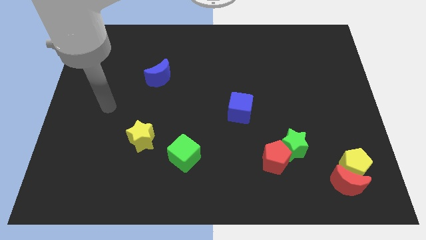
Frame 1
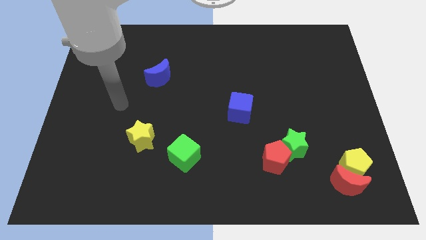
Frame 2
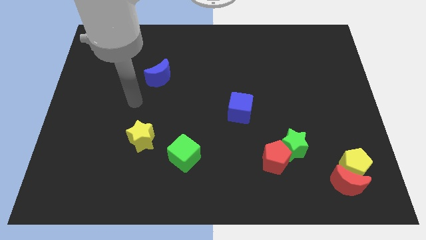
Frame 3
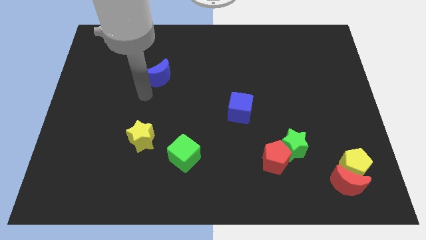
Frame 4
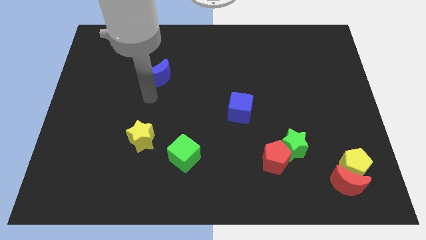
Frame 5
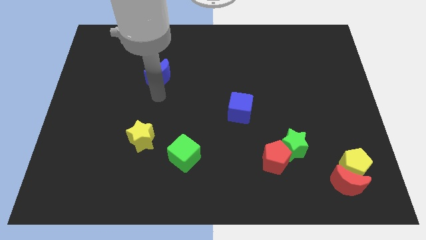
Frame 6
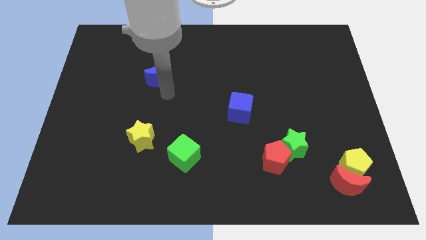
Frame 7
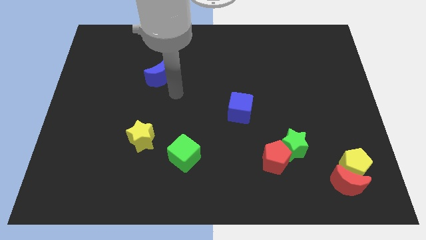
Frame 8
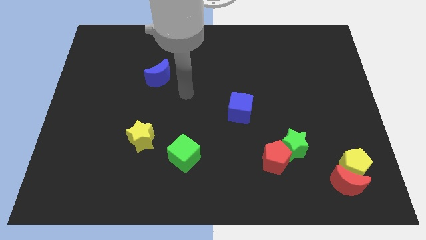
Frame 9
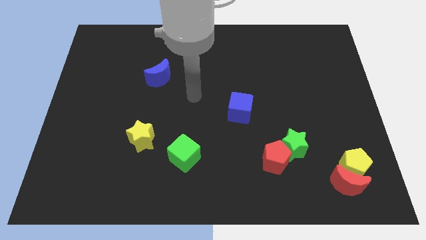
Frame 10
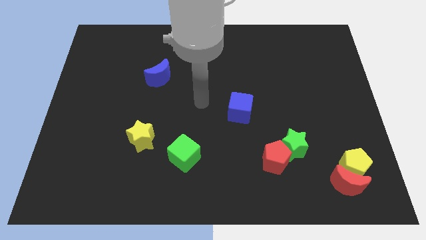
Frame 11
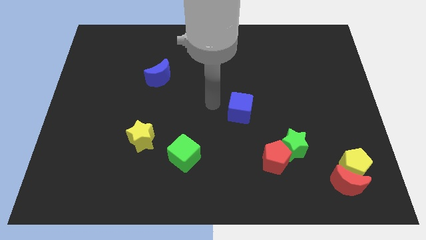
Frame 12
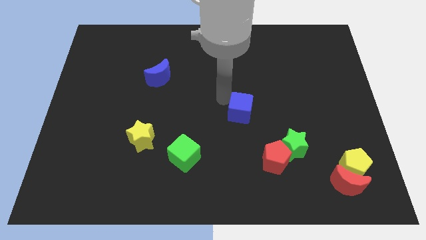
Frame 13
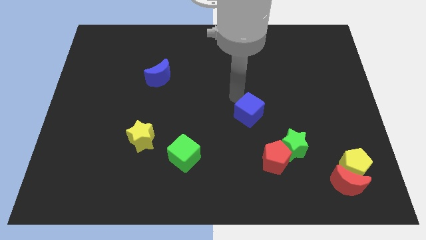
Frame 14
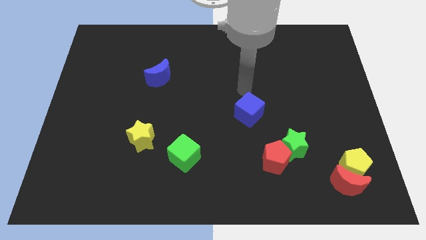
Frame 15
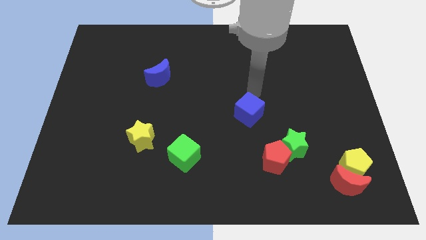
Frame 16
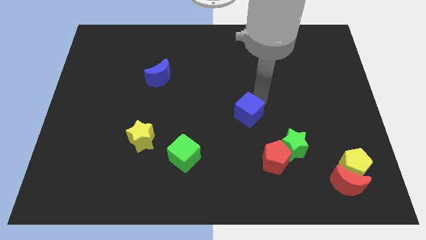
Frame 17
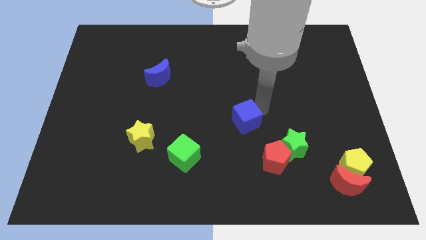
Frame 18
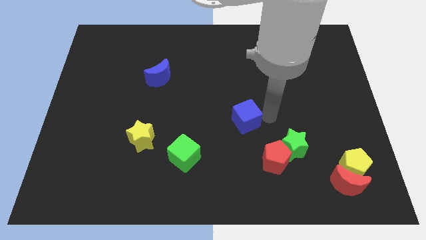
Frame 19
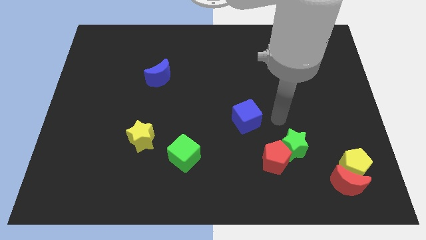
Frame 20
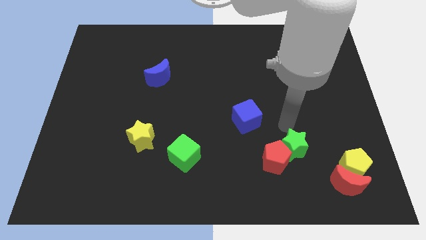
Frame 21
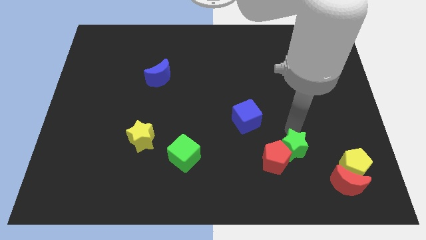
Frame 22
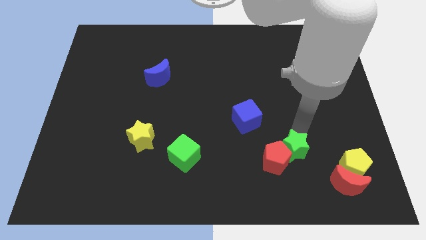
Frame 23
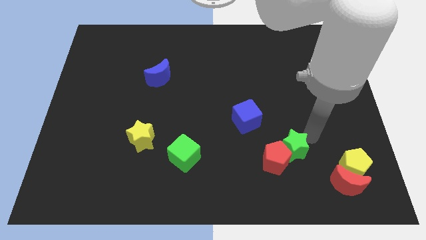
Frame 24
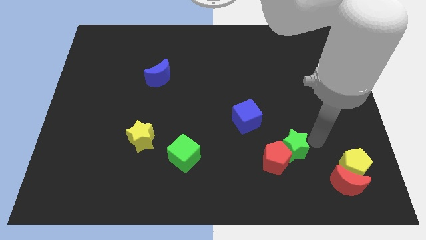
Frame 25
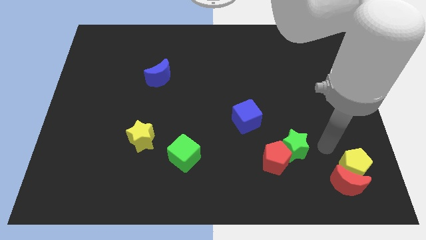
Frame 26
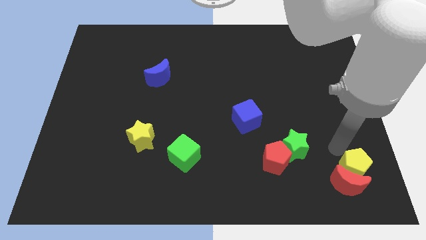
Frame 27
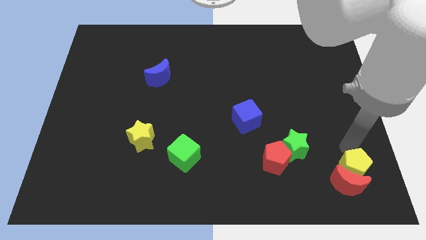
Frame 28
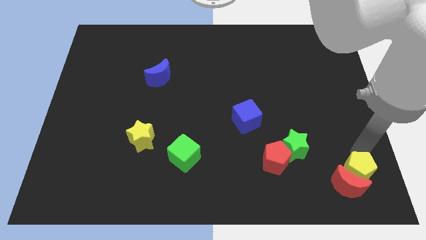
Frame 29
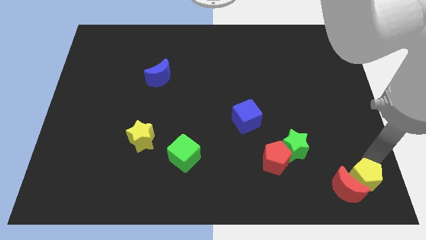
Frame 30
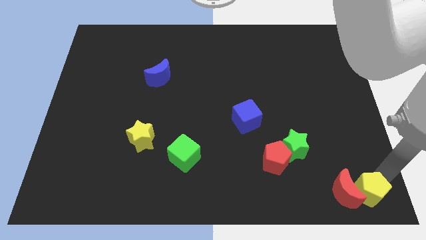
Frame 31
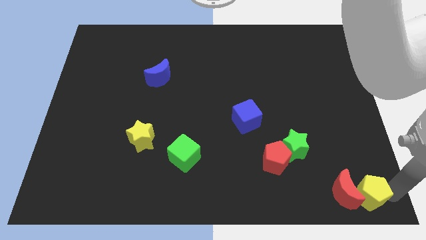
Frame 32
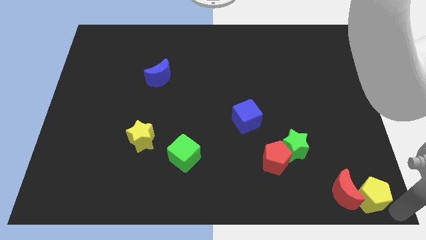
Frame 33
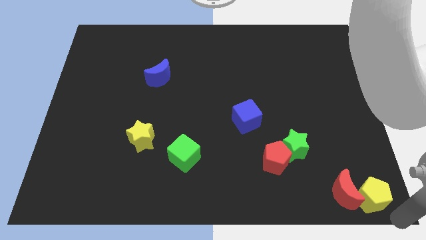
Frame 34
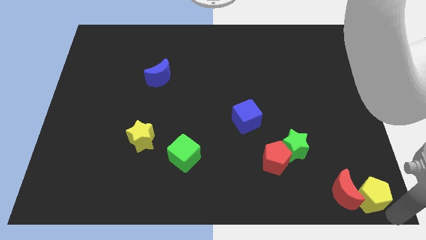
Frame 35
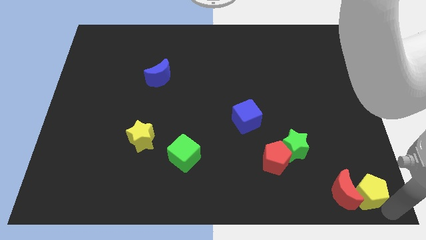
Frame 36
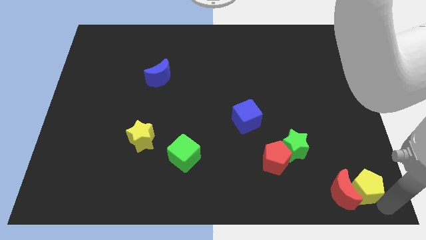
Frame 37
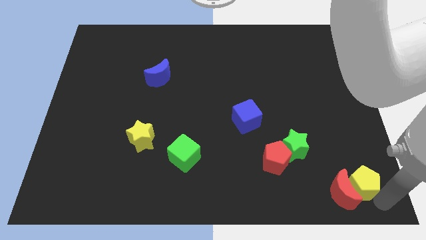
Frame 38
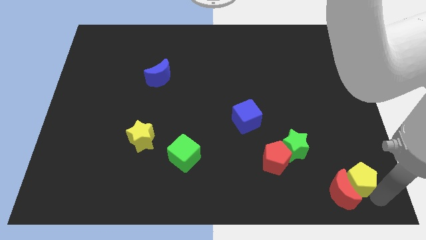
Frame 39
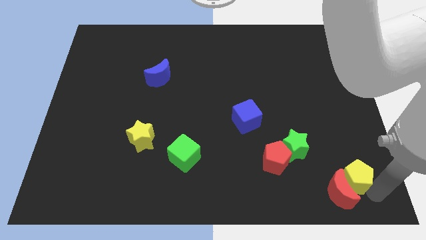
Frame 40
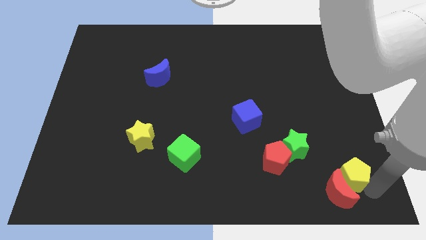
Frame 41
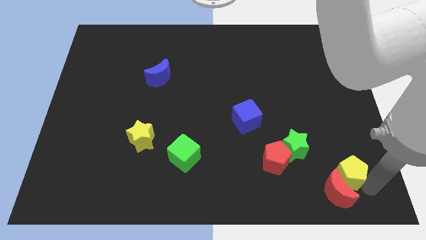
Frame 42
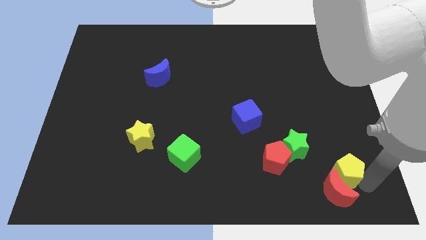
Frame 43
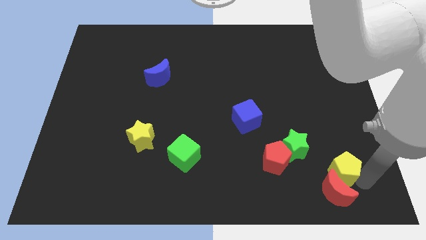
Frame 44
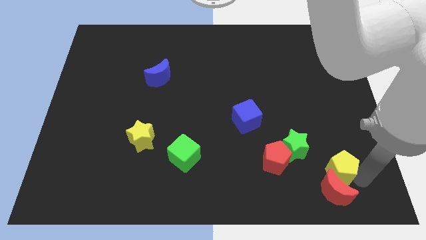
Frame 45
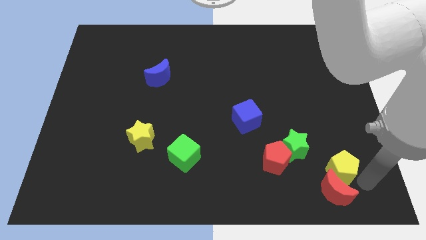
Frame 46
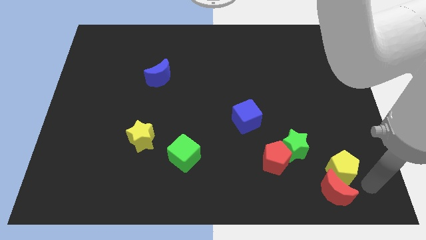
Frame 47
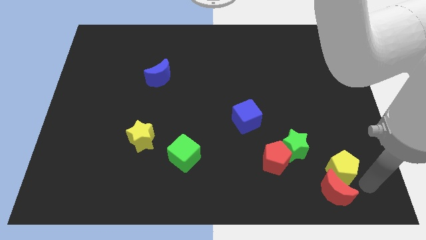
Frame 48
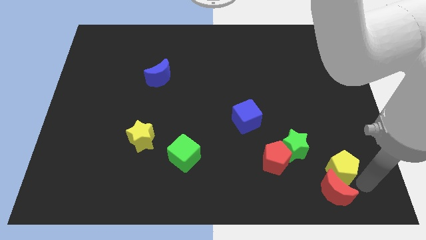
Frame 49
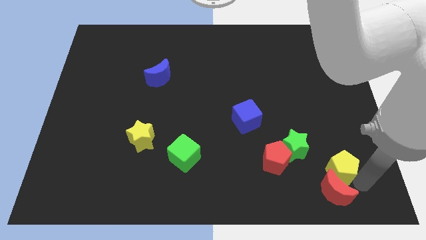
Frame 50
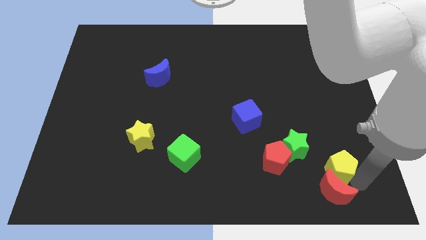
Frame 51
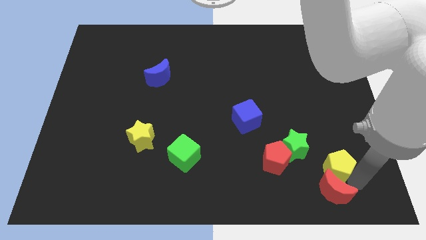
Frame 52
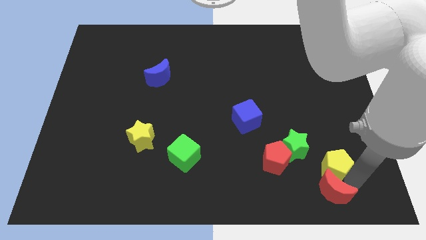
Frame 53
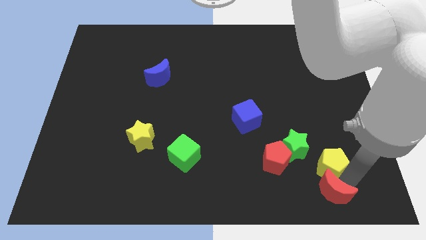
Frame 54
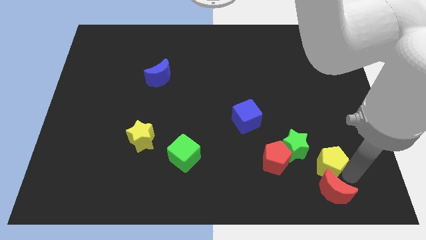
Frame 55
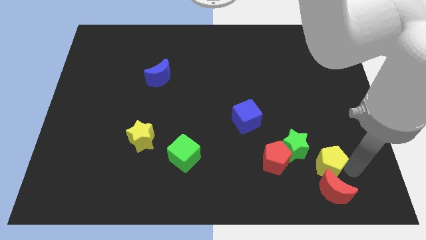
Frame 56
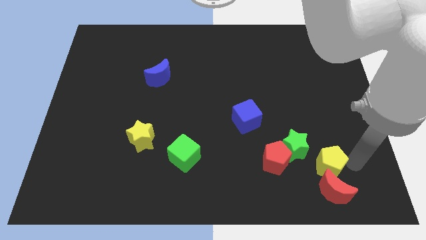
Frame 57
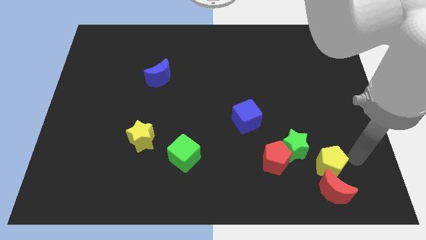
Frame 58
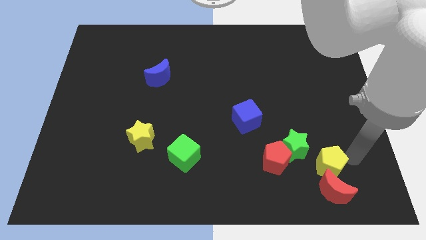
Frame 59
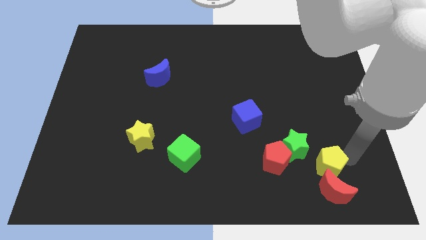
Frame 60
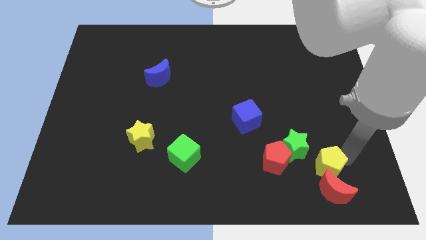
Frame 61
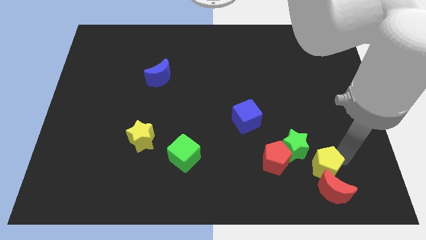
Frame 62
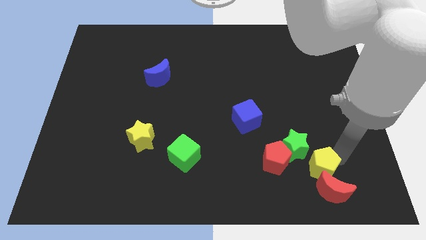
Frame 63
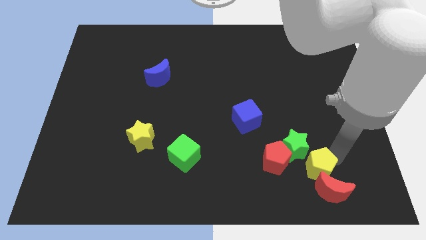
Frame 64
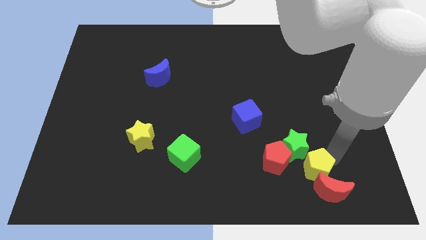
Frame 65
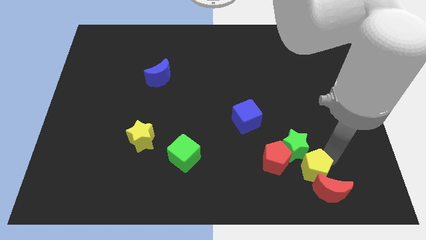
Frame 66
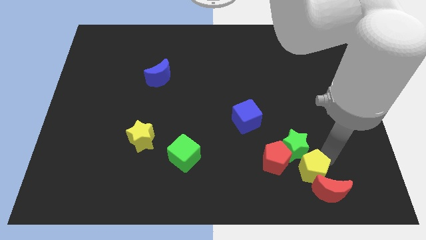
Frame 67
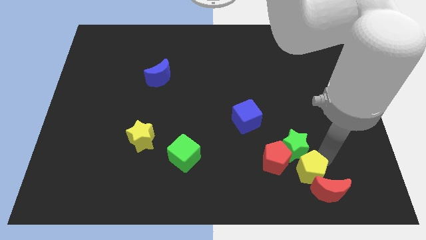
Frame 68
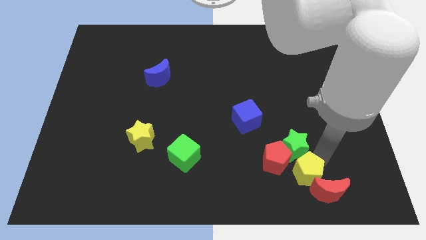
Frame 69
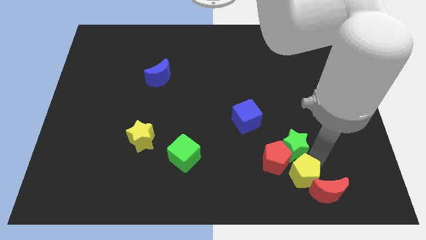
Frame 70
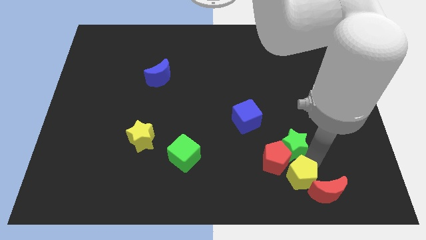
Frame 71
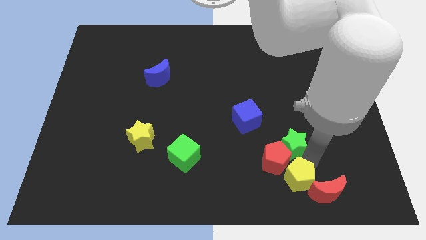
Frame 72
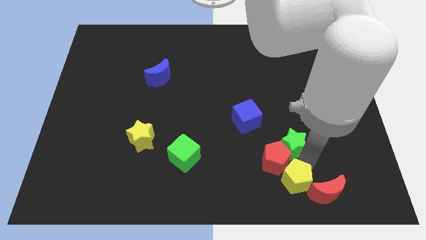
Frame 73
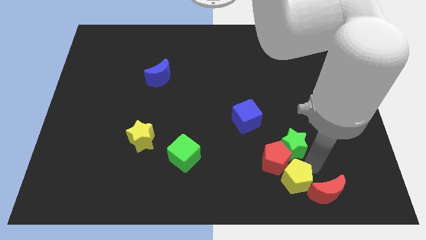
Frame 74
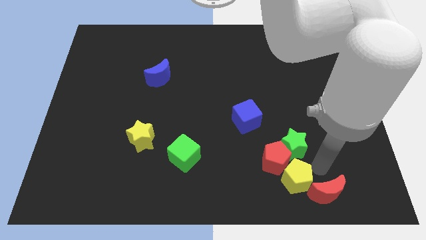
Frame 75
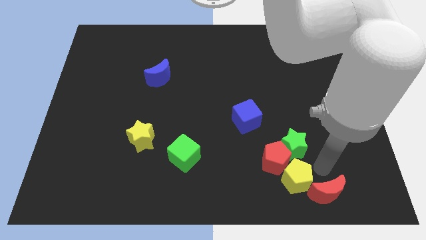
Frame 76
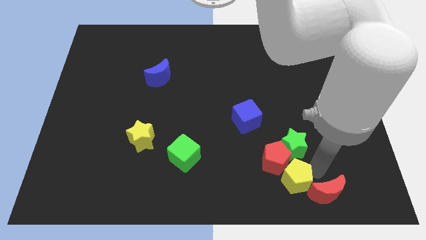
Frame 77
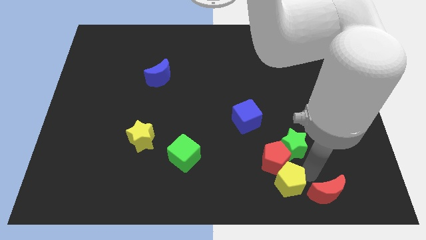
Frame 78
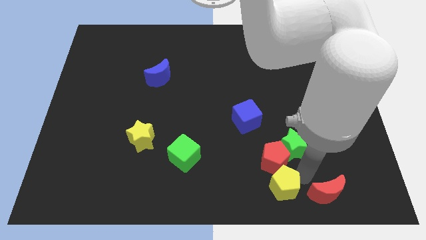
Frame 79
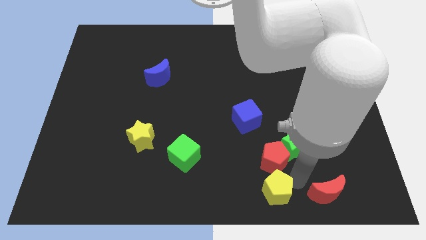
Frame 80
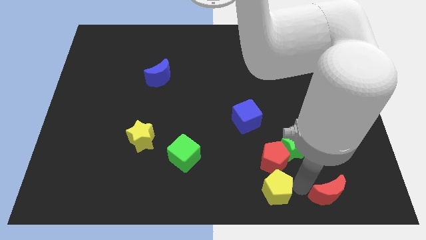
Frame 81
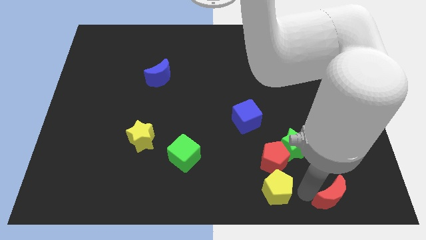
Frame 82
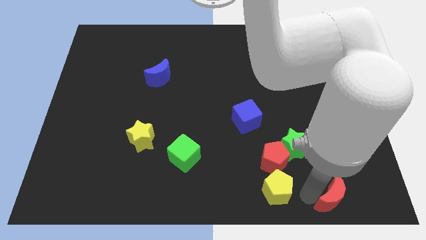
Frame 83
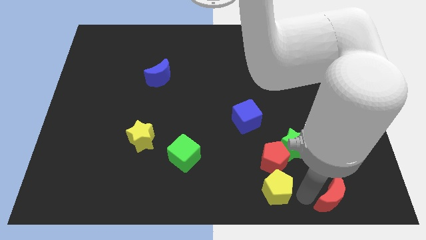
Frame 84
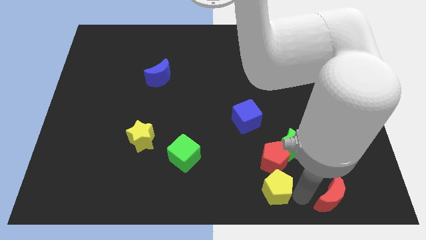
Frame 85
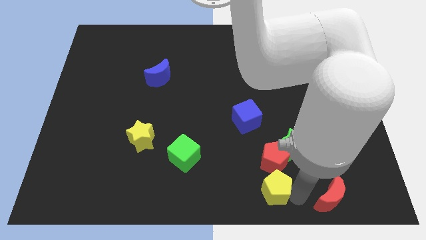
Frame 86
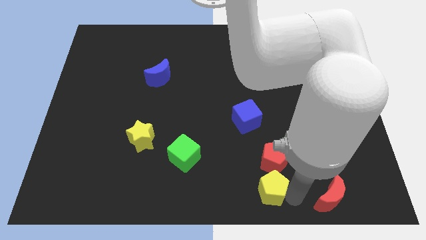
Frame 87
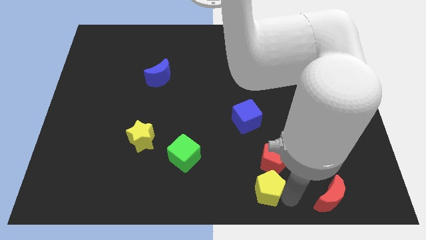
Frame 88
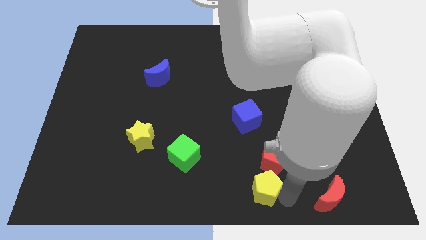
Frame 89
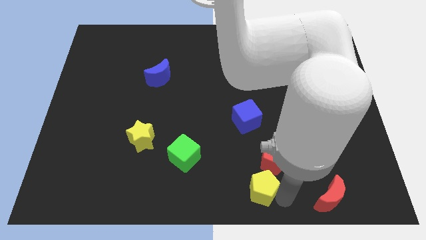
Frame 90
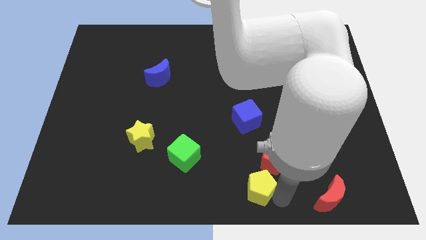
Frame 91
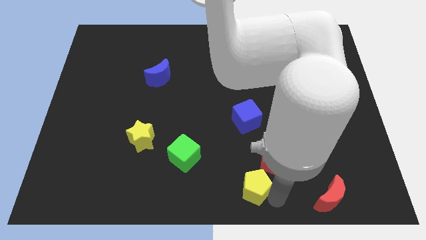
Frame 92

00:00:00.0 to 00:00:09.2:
push the yellow pentagon to the left
